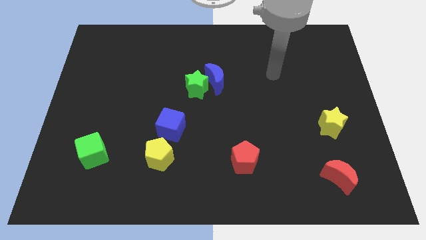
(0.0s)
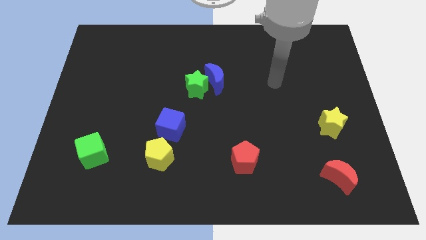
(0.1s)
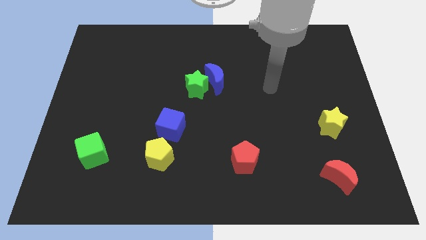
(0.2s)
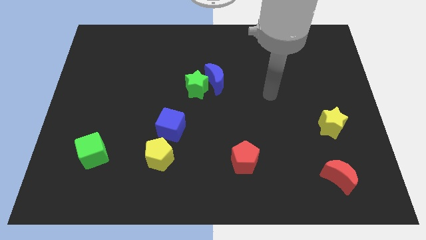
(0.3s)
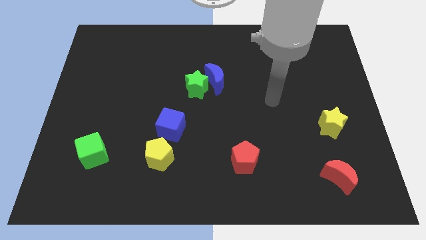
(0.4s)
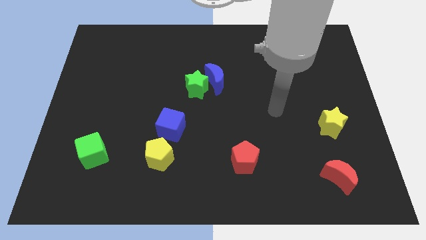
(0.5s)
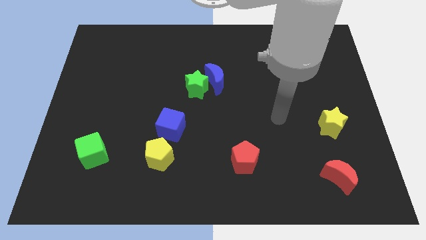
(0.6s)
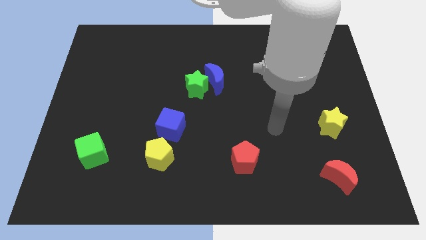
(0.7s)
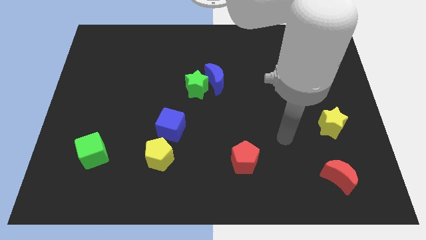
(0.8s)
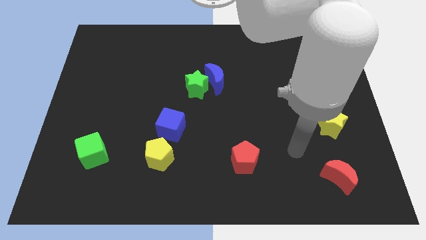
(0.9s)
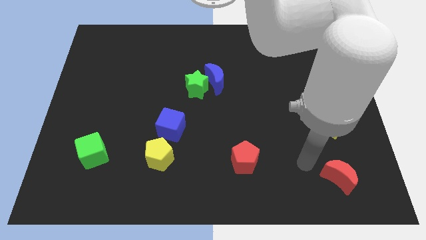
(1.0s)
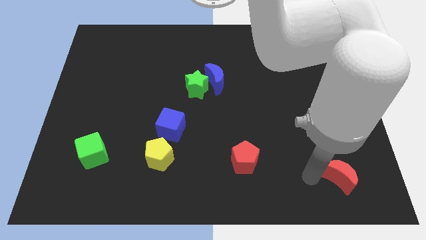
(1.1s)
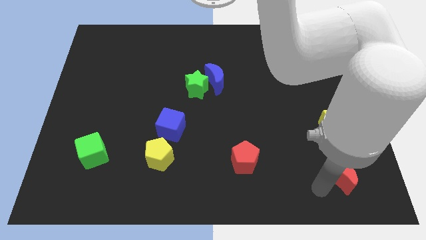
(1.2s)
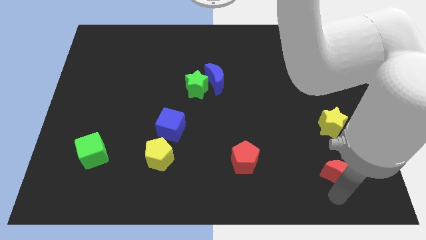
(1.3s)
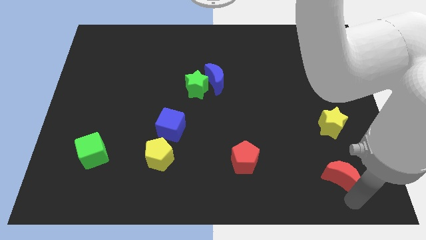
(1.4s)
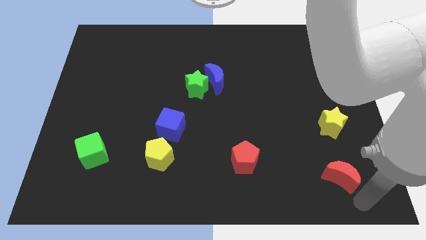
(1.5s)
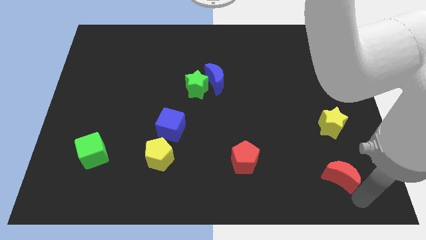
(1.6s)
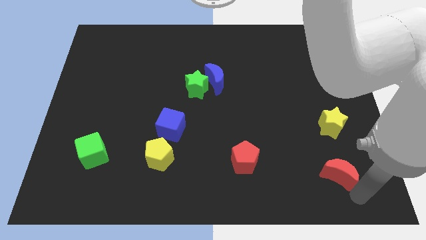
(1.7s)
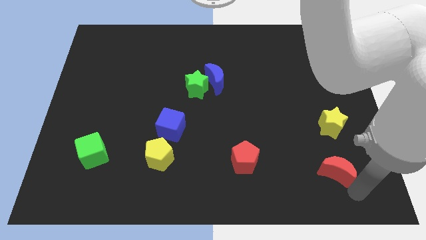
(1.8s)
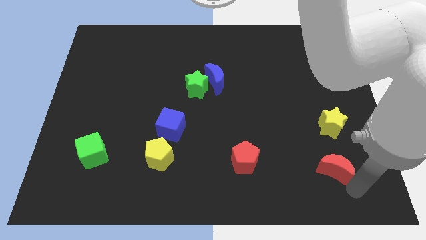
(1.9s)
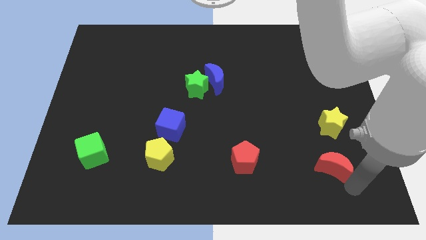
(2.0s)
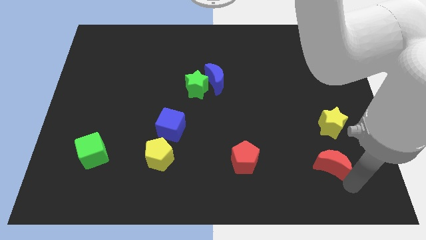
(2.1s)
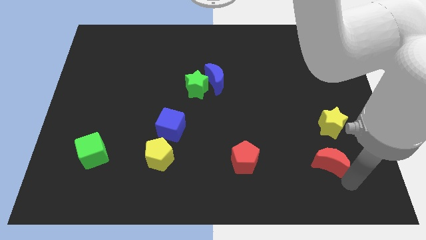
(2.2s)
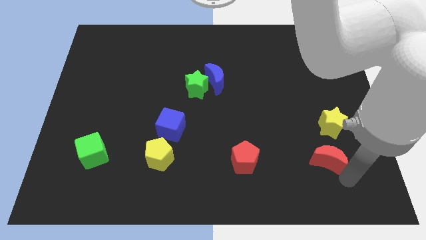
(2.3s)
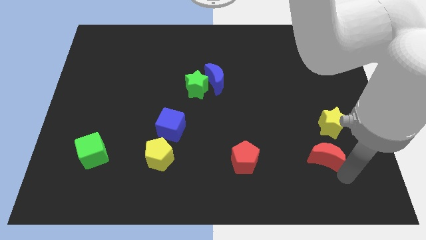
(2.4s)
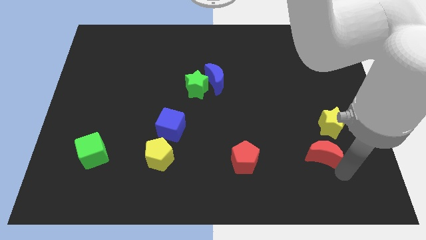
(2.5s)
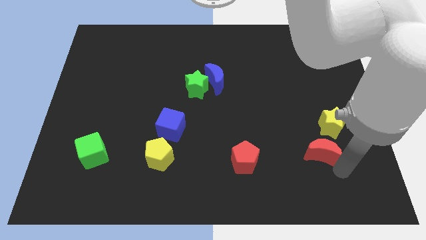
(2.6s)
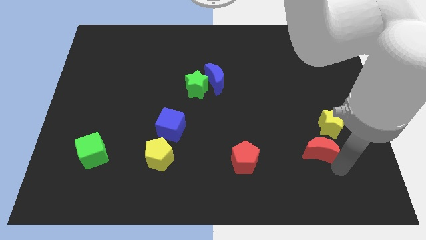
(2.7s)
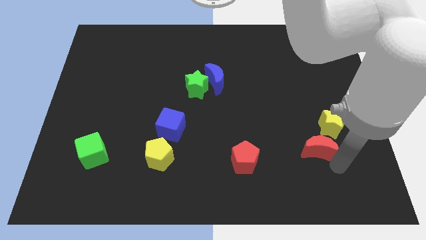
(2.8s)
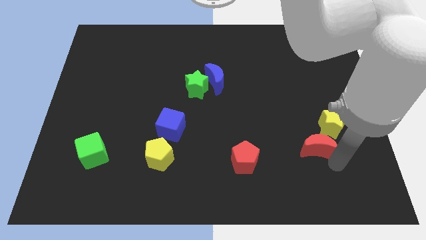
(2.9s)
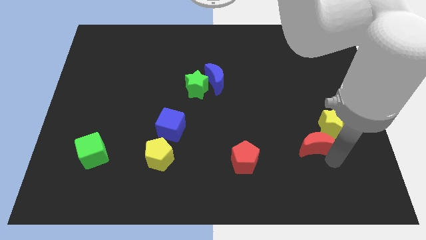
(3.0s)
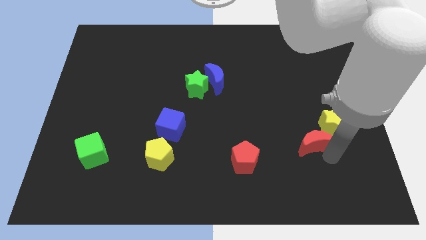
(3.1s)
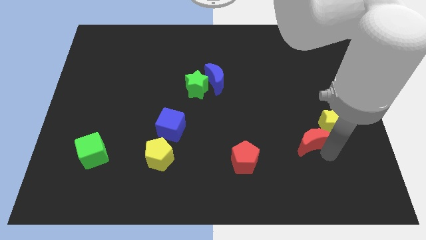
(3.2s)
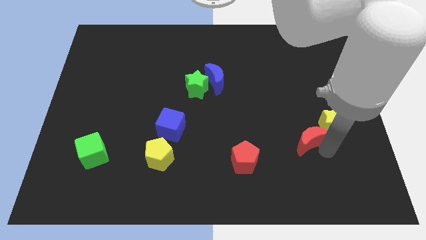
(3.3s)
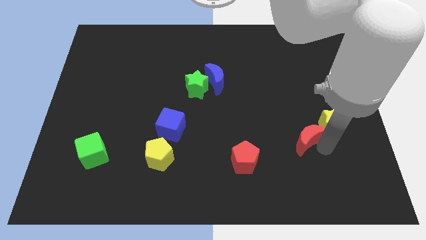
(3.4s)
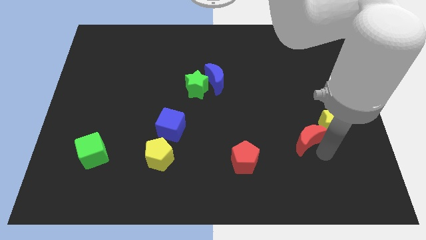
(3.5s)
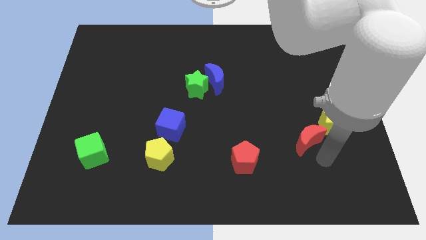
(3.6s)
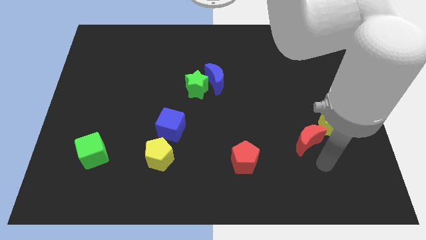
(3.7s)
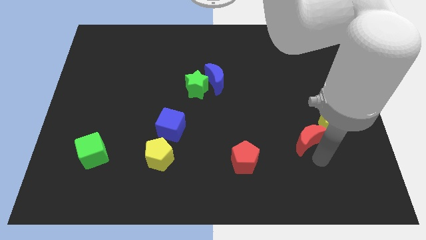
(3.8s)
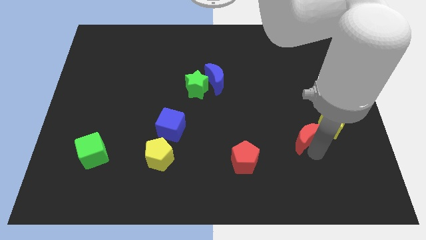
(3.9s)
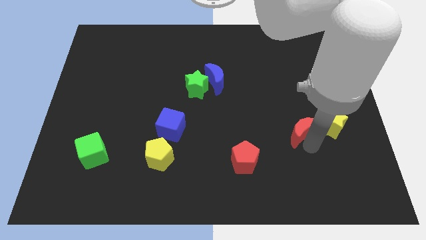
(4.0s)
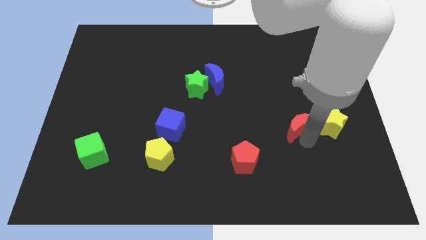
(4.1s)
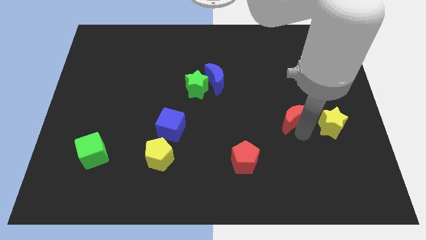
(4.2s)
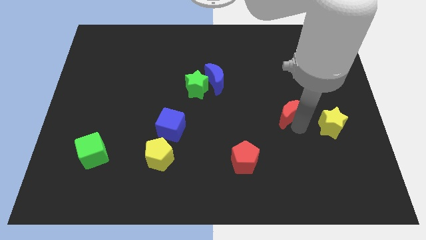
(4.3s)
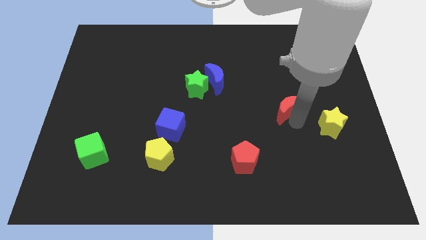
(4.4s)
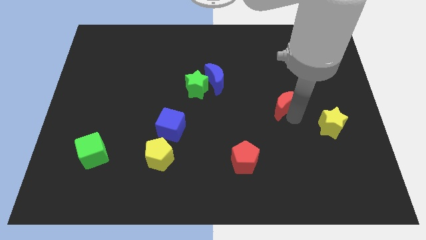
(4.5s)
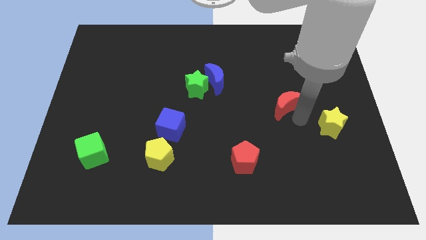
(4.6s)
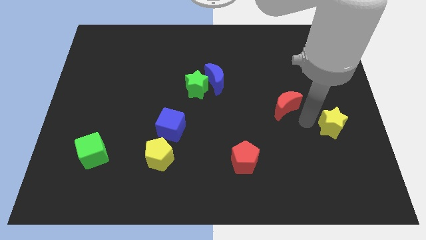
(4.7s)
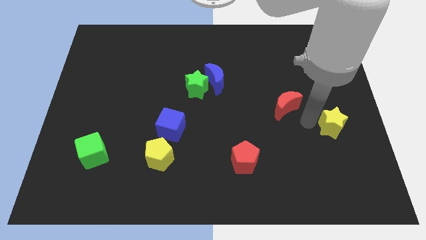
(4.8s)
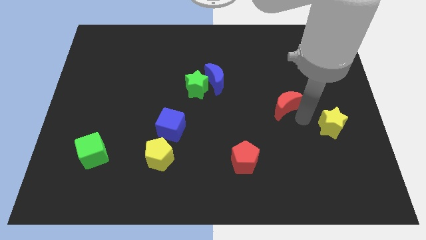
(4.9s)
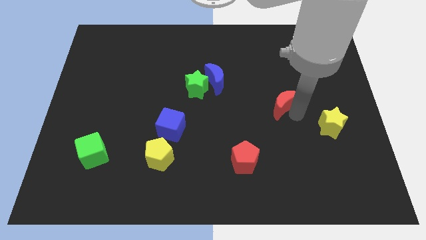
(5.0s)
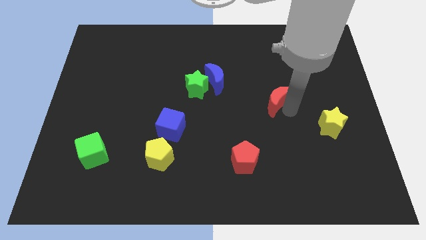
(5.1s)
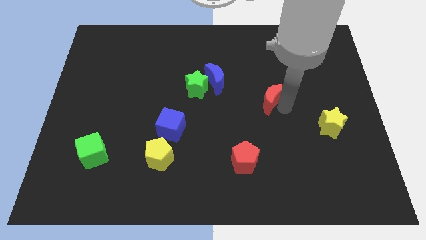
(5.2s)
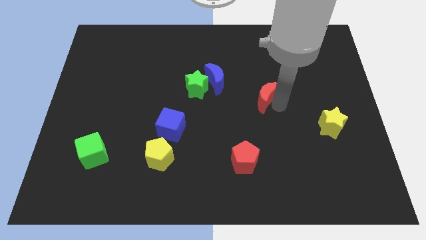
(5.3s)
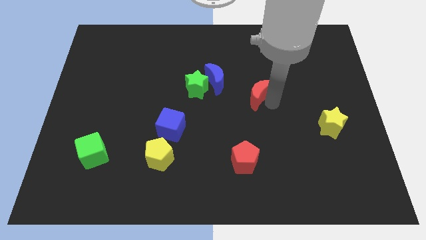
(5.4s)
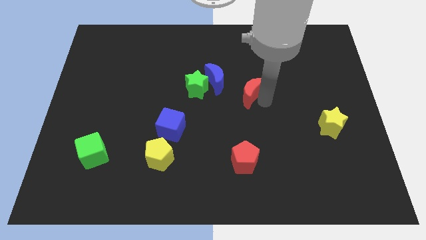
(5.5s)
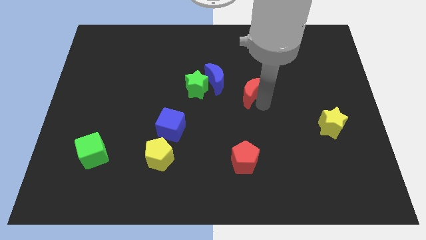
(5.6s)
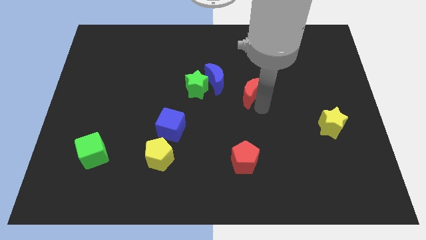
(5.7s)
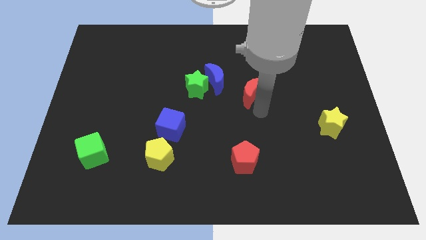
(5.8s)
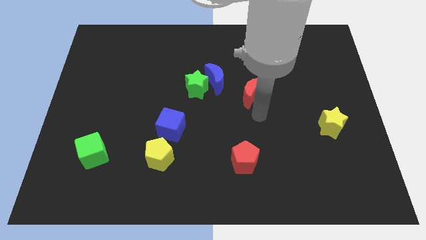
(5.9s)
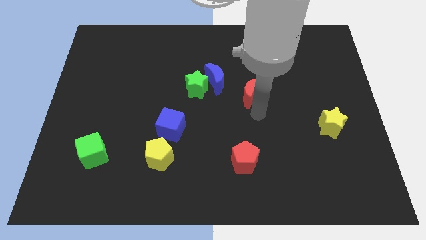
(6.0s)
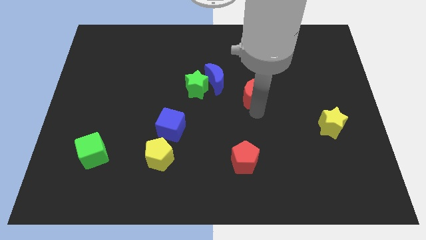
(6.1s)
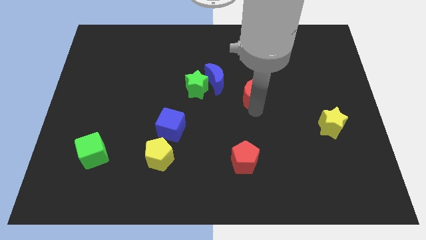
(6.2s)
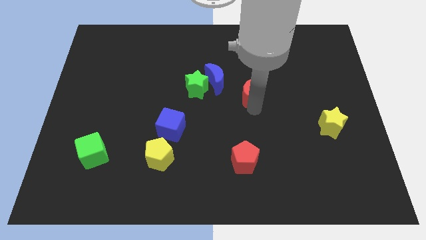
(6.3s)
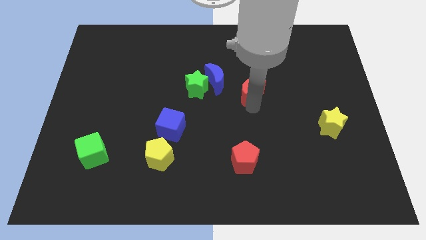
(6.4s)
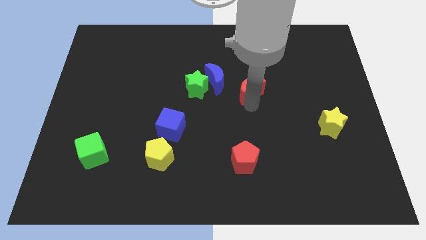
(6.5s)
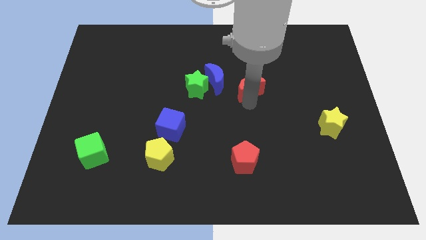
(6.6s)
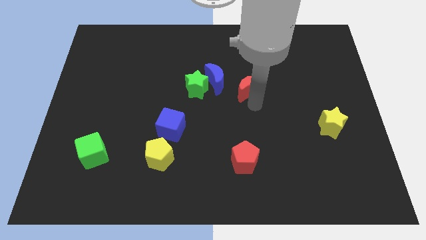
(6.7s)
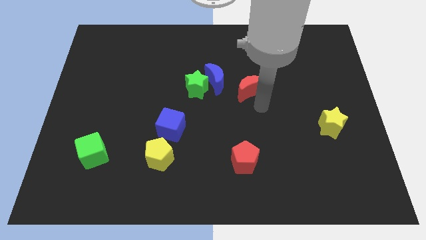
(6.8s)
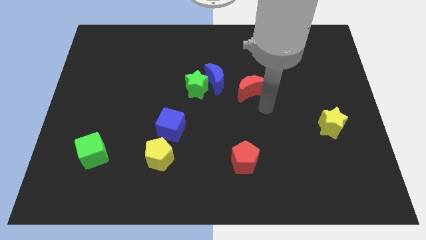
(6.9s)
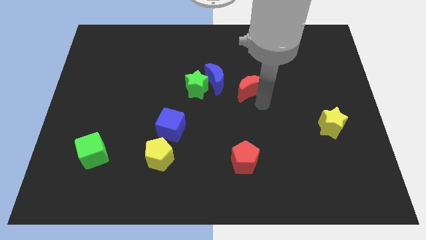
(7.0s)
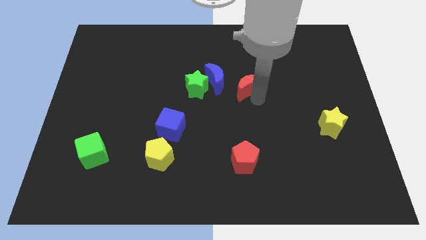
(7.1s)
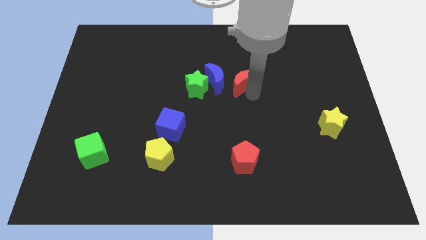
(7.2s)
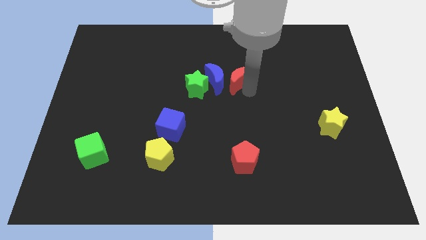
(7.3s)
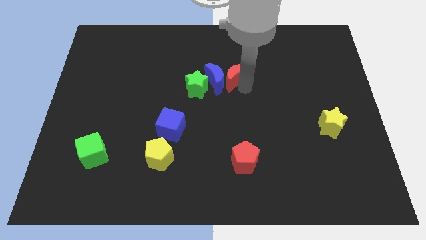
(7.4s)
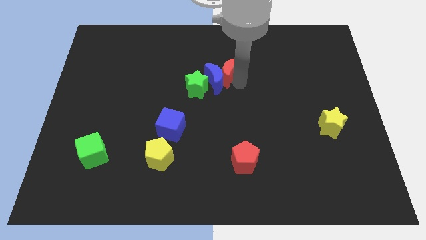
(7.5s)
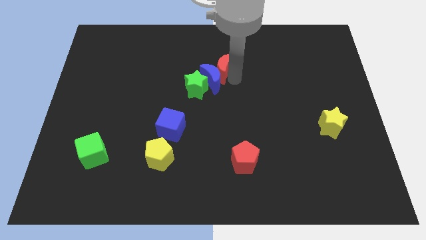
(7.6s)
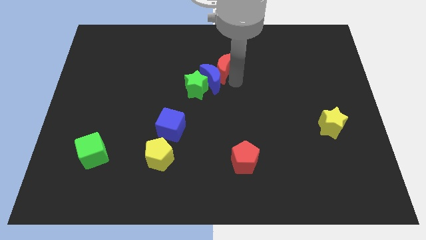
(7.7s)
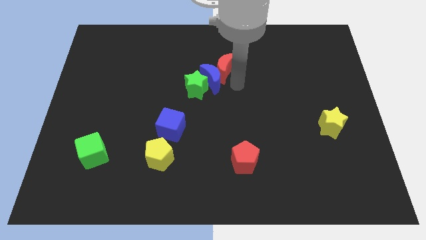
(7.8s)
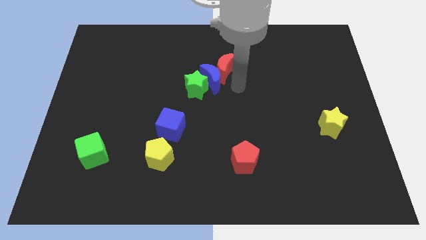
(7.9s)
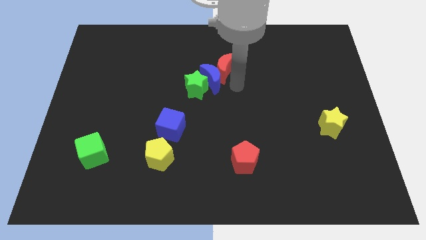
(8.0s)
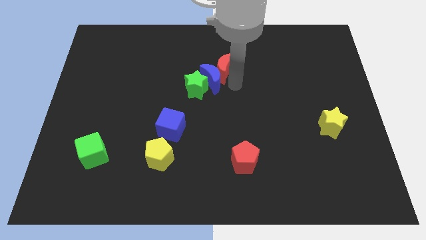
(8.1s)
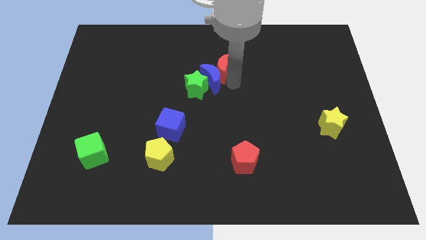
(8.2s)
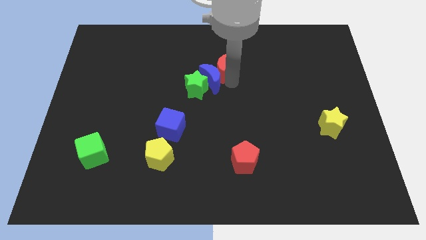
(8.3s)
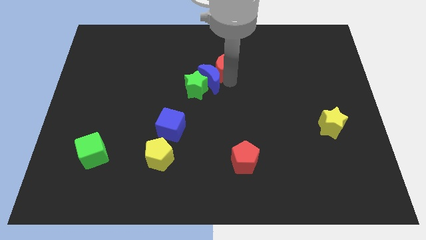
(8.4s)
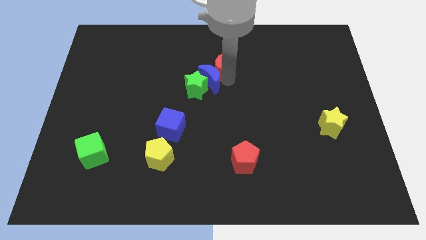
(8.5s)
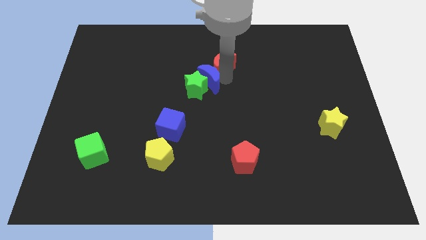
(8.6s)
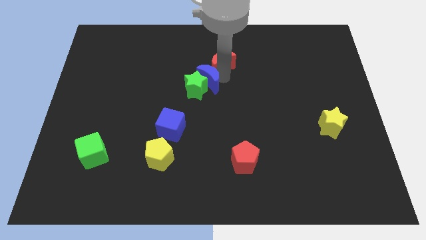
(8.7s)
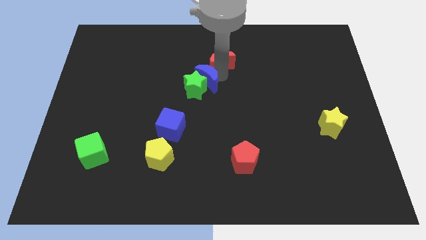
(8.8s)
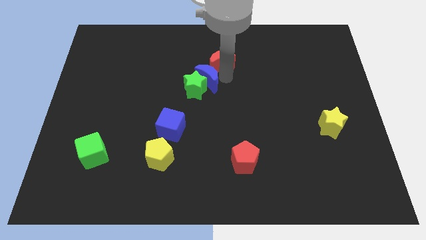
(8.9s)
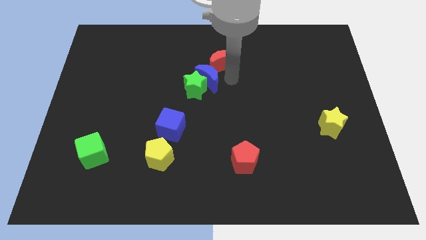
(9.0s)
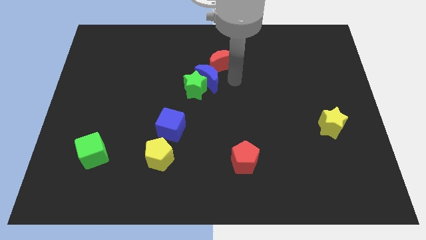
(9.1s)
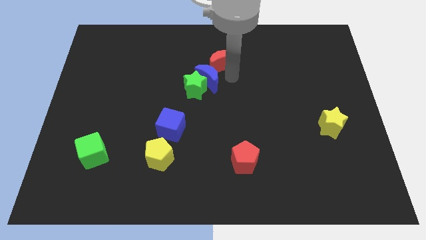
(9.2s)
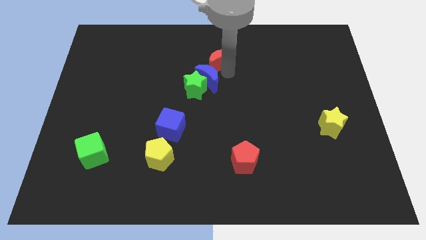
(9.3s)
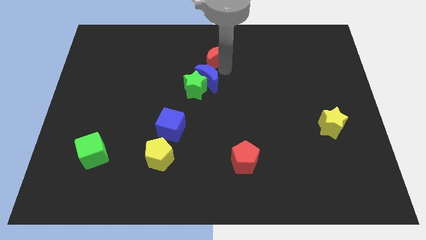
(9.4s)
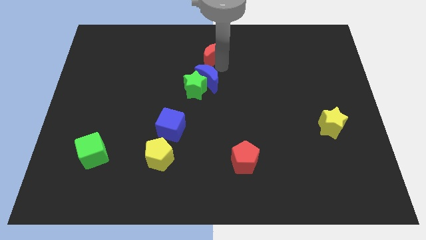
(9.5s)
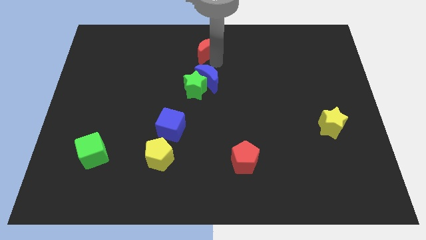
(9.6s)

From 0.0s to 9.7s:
push the red moon to the top
